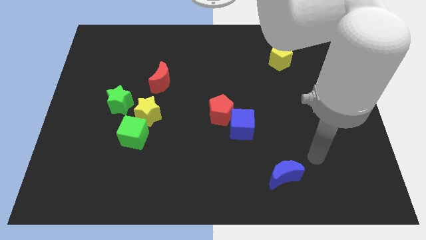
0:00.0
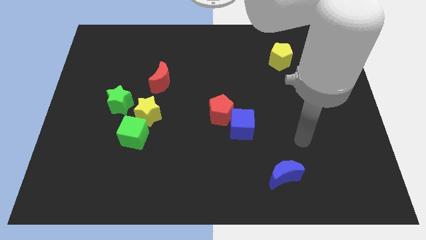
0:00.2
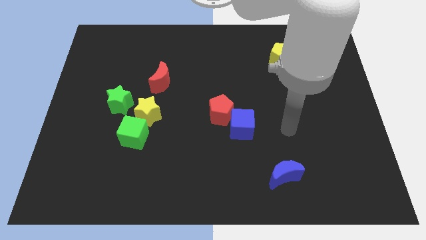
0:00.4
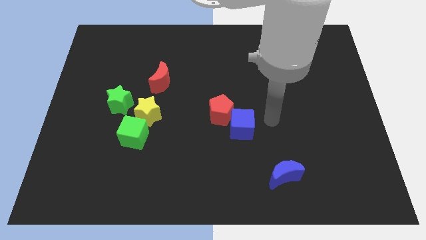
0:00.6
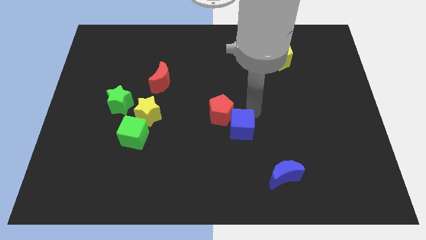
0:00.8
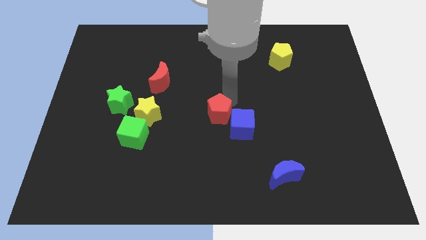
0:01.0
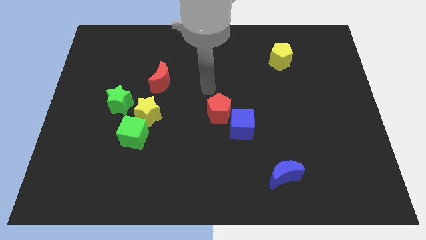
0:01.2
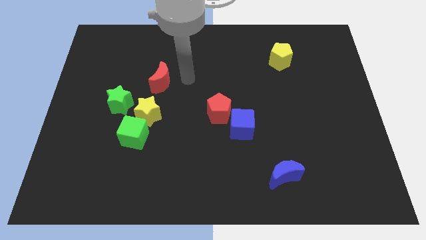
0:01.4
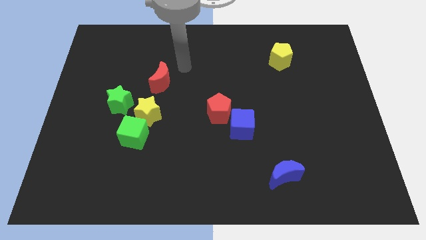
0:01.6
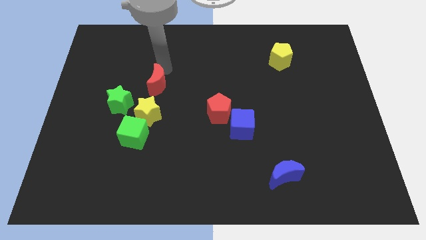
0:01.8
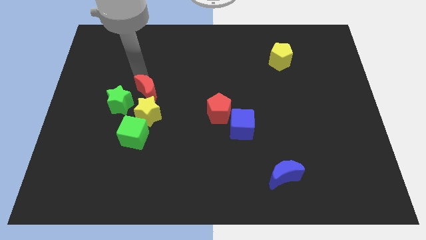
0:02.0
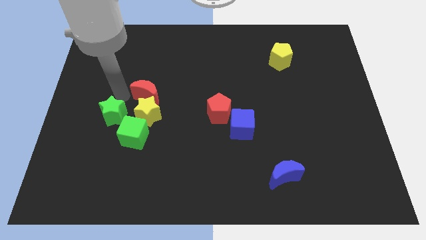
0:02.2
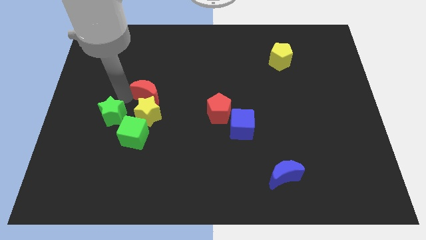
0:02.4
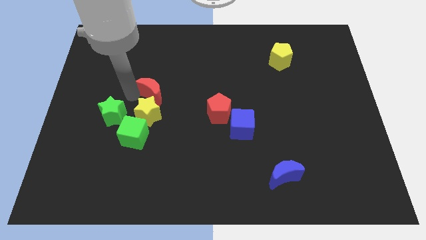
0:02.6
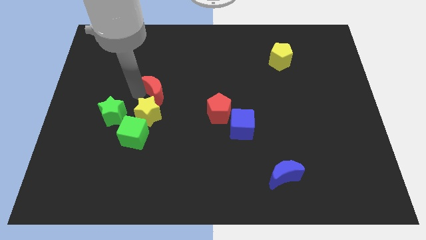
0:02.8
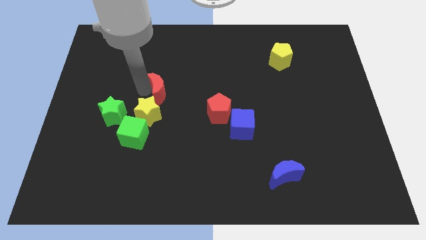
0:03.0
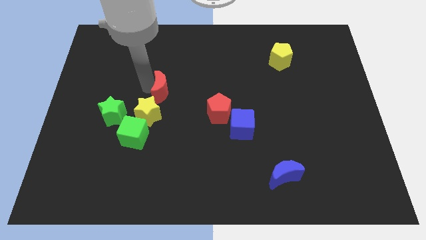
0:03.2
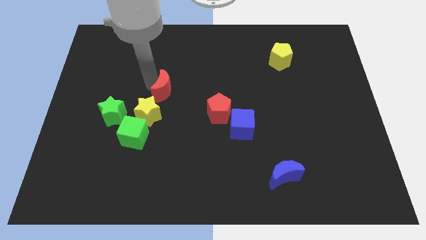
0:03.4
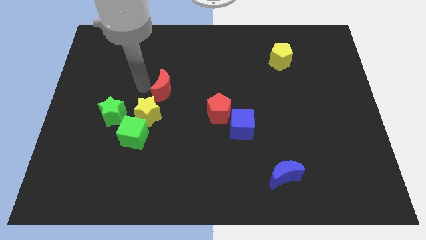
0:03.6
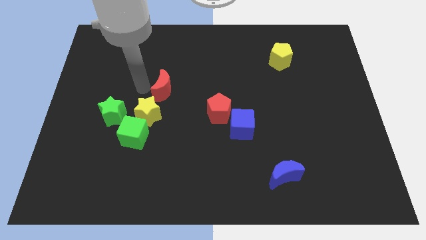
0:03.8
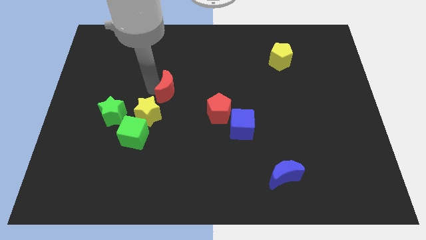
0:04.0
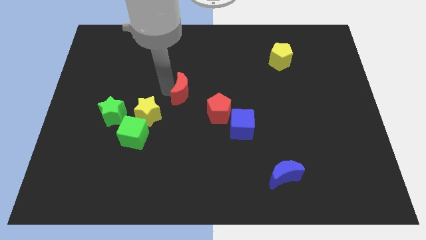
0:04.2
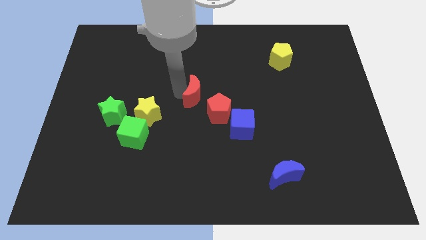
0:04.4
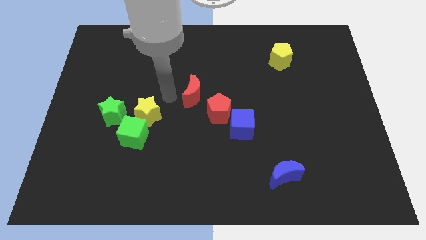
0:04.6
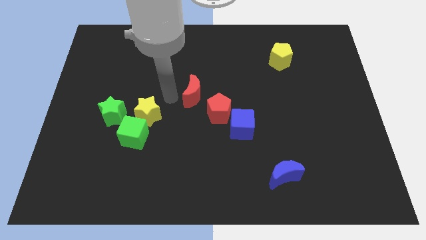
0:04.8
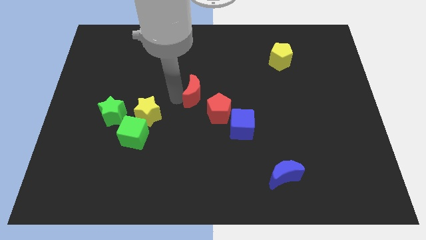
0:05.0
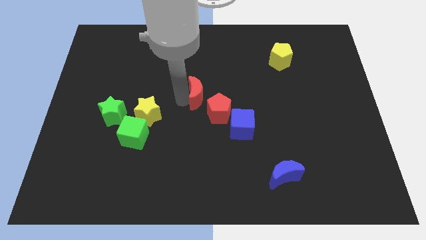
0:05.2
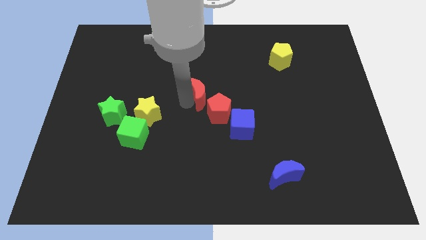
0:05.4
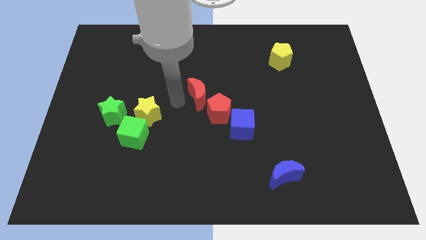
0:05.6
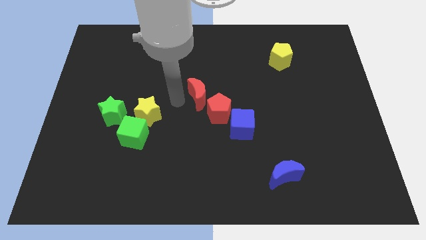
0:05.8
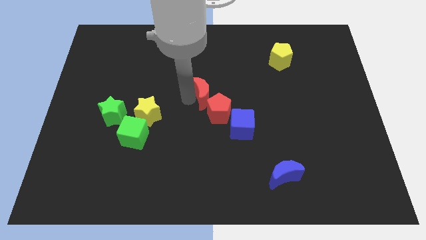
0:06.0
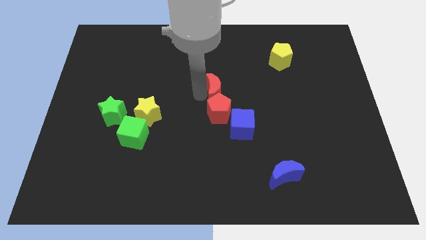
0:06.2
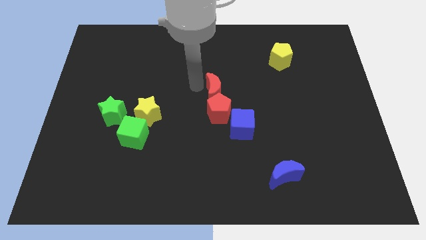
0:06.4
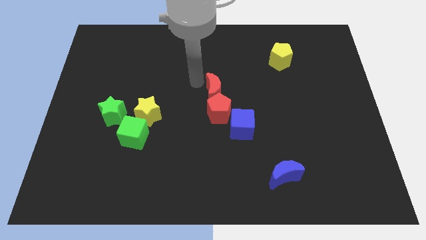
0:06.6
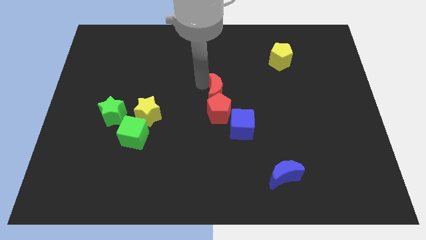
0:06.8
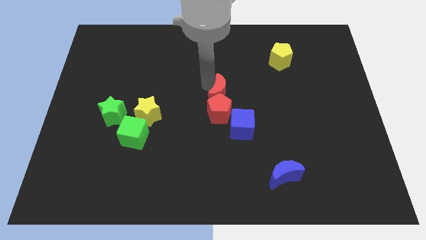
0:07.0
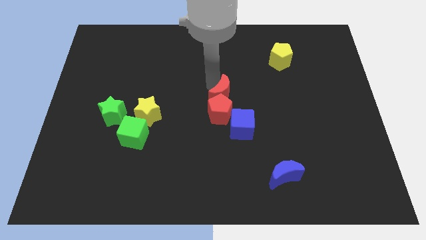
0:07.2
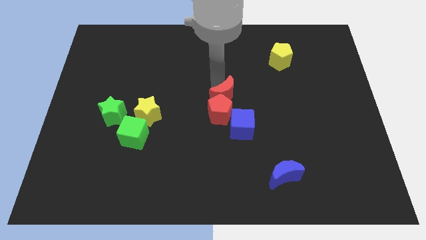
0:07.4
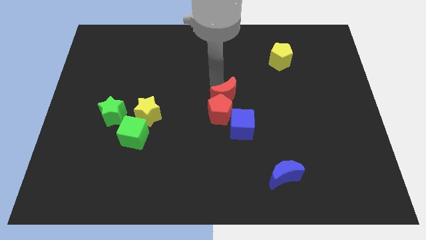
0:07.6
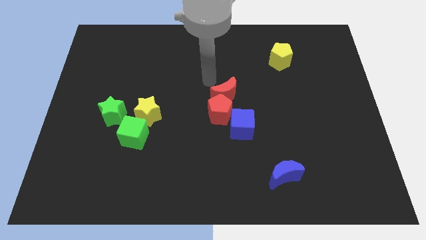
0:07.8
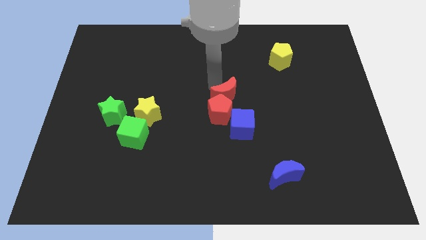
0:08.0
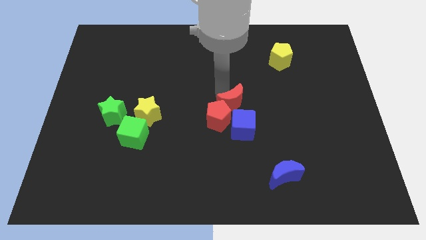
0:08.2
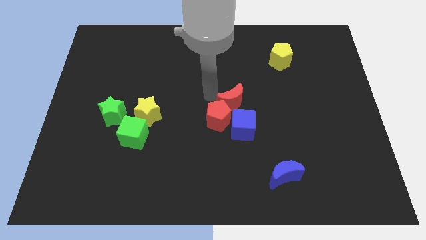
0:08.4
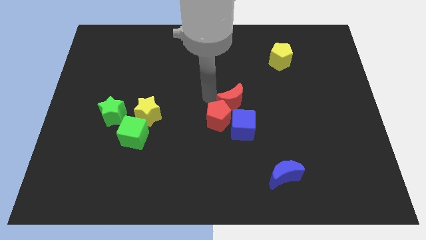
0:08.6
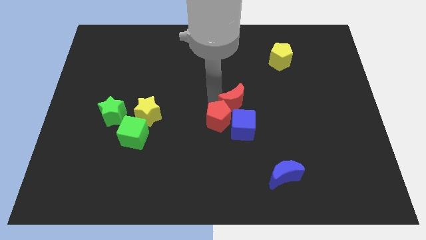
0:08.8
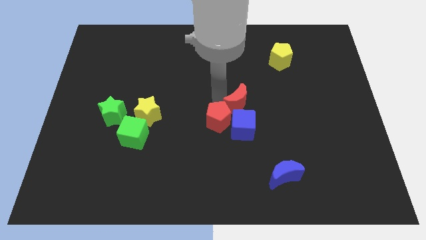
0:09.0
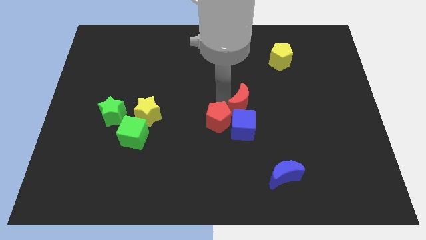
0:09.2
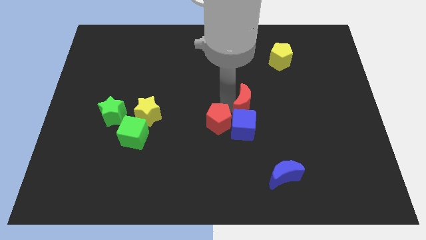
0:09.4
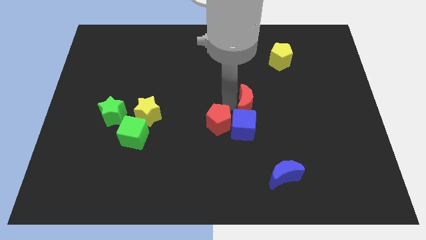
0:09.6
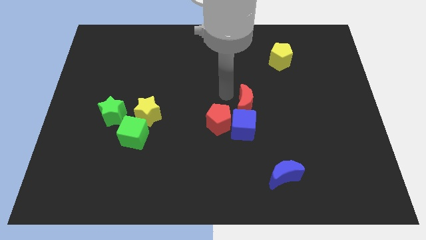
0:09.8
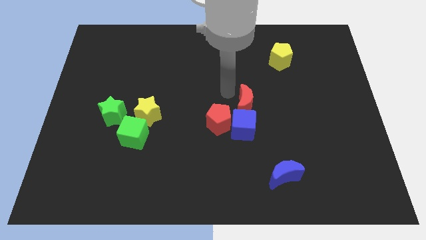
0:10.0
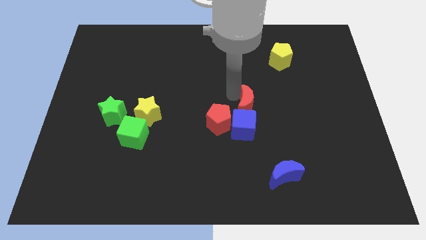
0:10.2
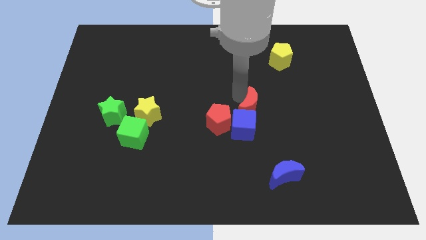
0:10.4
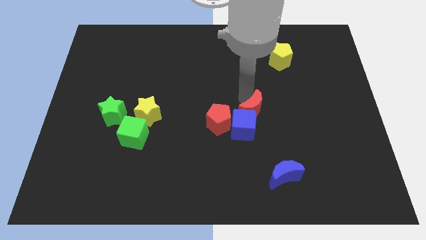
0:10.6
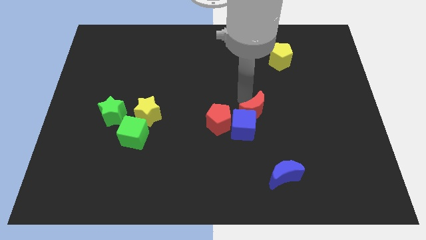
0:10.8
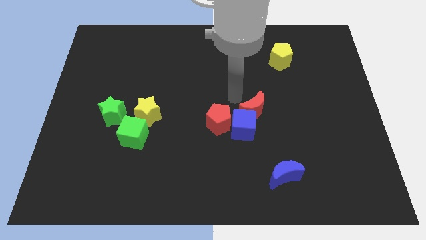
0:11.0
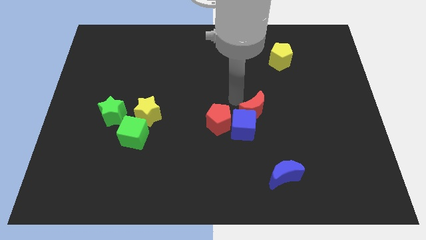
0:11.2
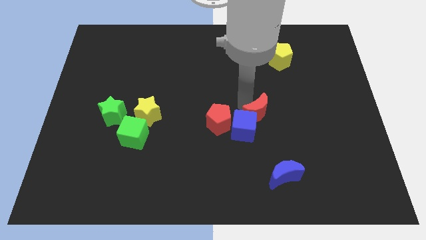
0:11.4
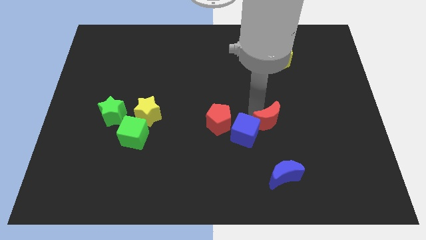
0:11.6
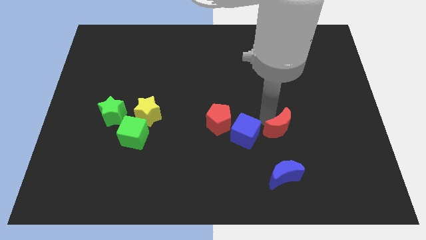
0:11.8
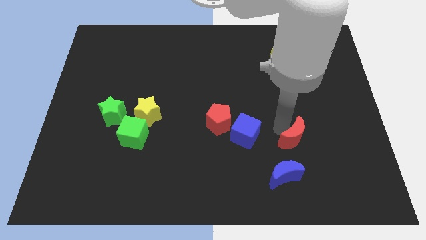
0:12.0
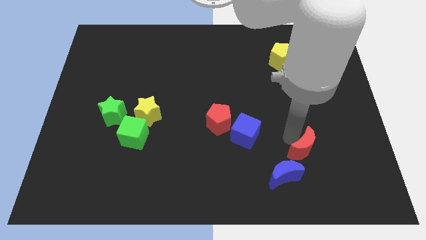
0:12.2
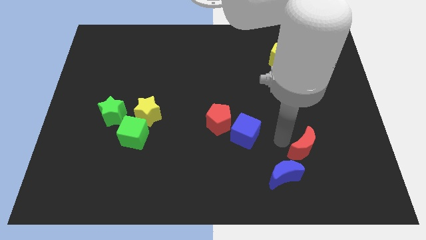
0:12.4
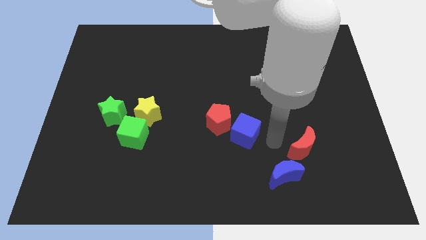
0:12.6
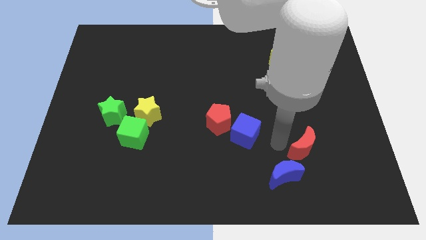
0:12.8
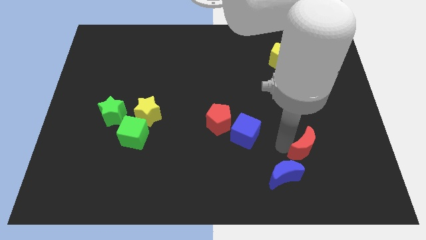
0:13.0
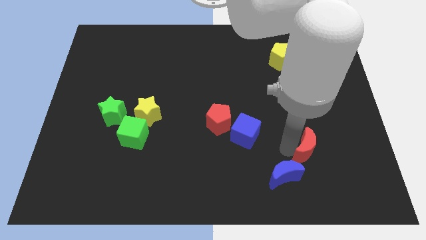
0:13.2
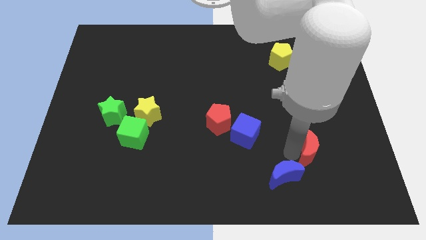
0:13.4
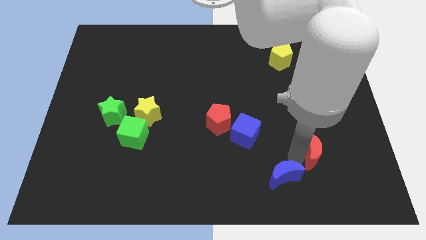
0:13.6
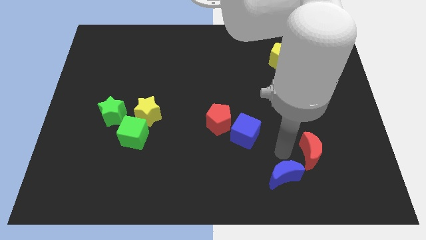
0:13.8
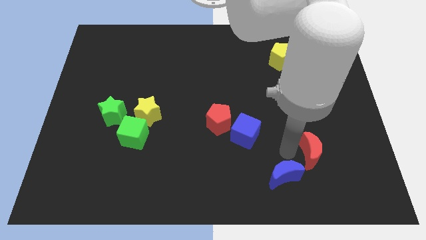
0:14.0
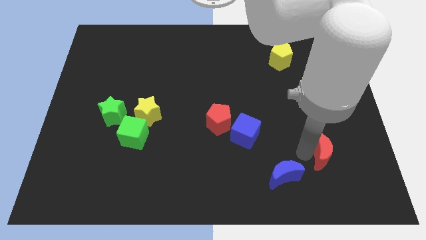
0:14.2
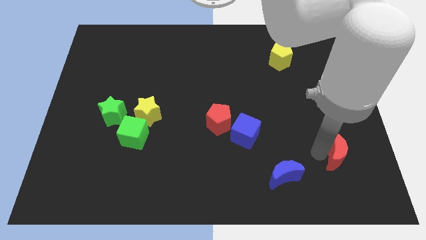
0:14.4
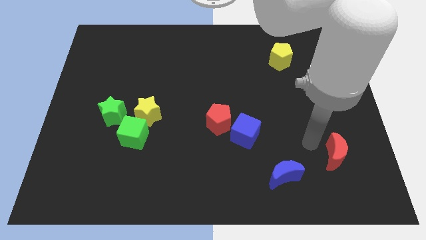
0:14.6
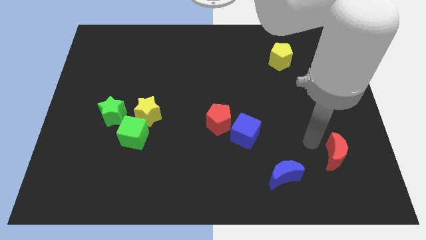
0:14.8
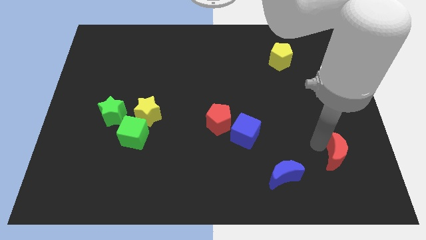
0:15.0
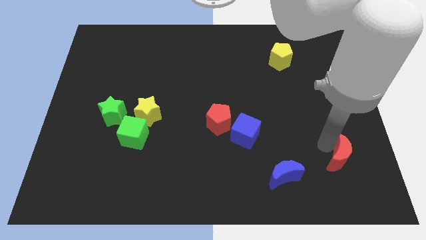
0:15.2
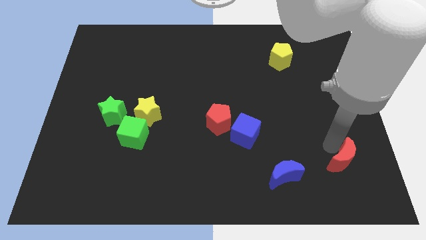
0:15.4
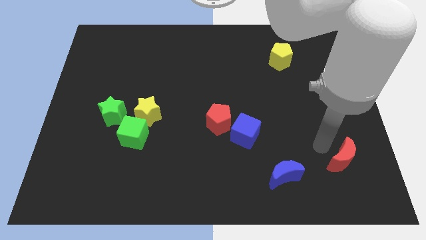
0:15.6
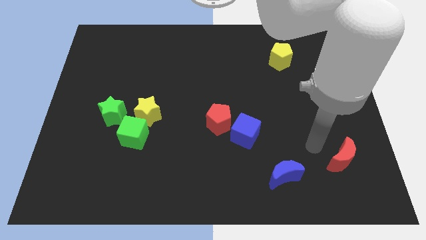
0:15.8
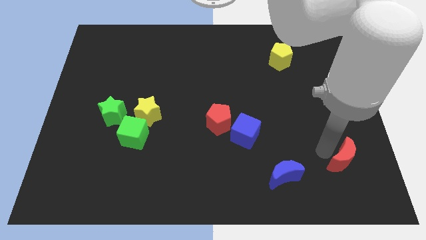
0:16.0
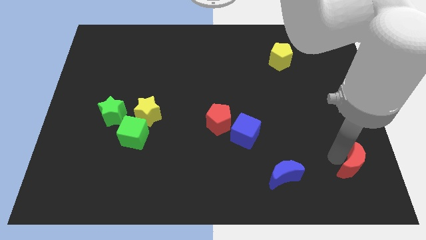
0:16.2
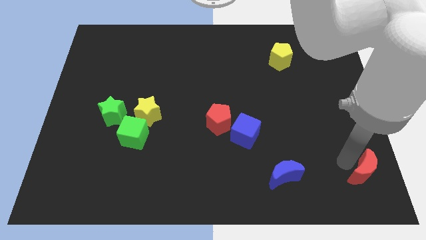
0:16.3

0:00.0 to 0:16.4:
slide the red moon to the bottom right
